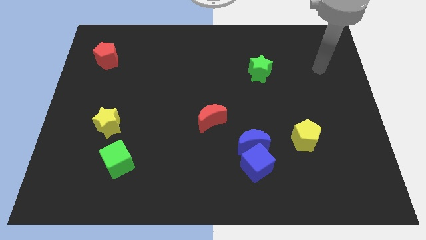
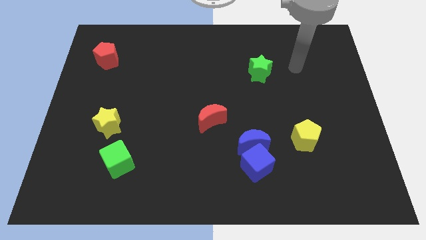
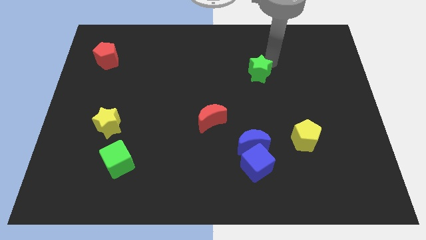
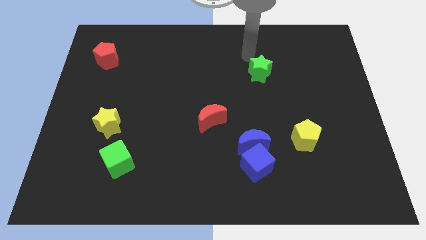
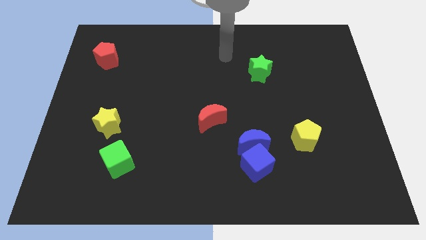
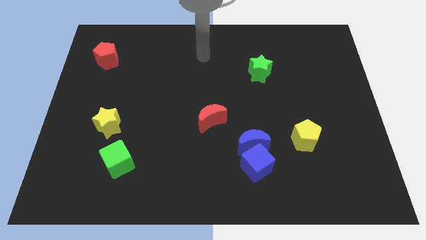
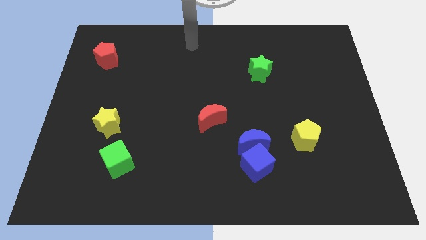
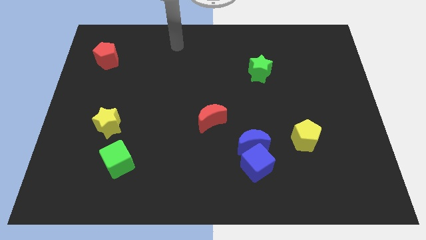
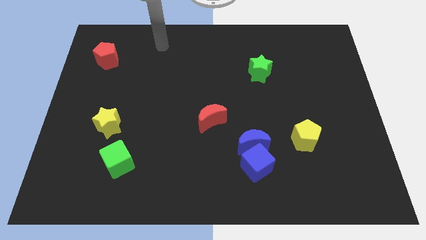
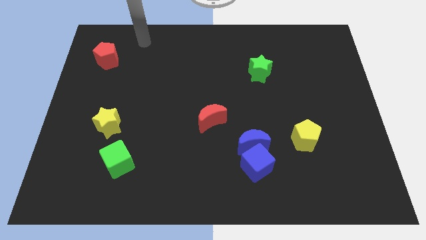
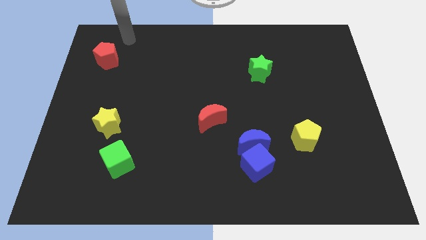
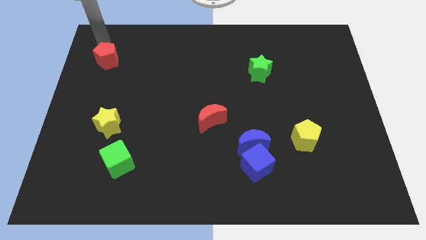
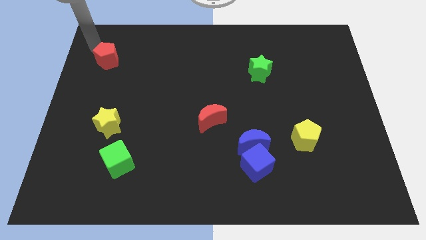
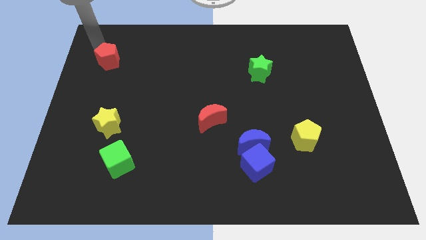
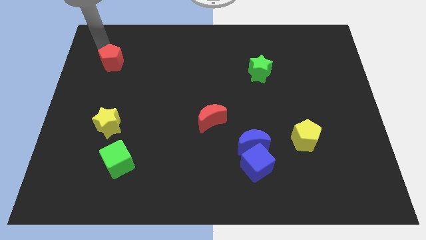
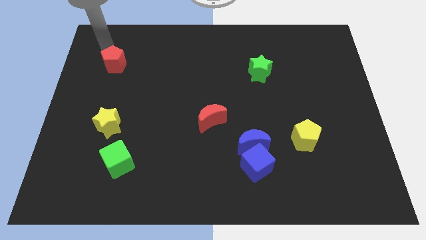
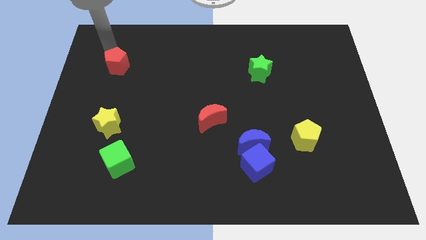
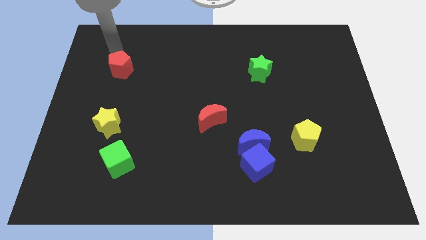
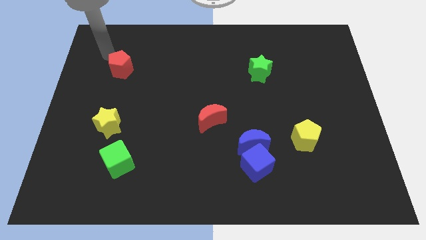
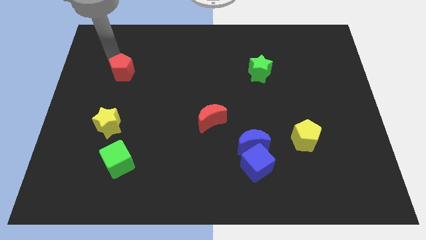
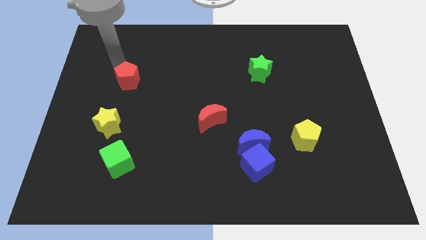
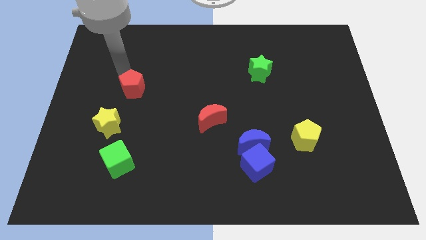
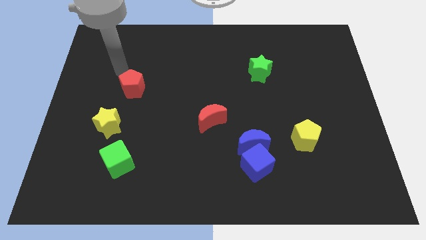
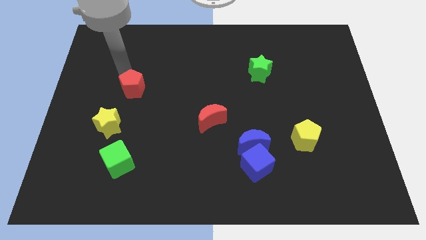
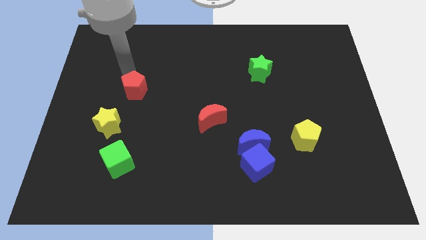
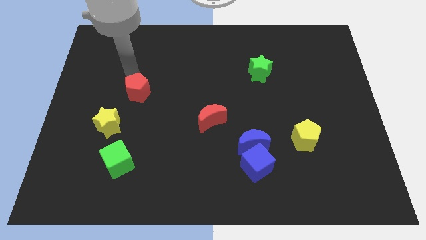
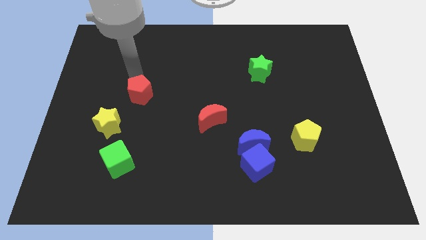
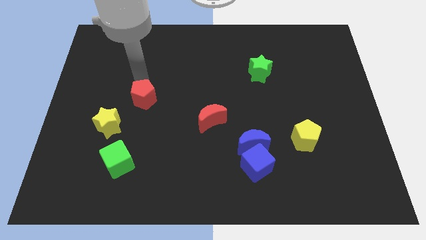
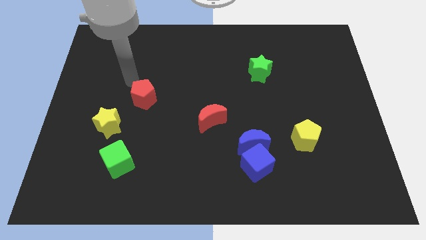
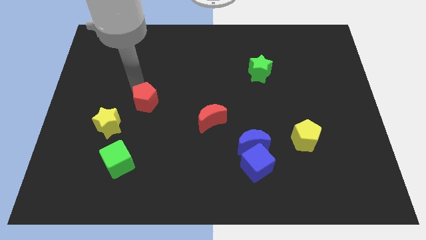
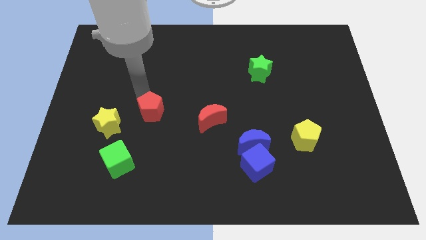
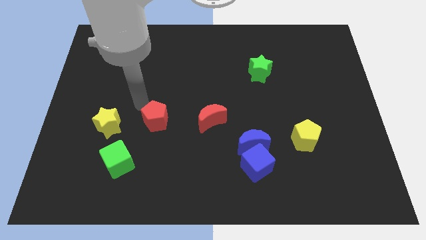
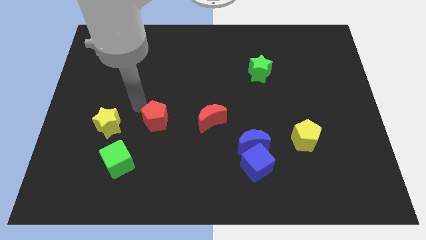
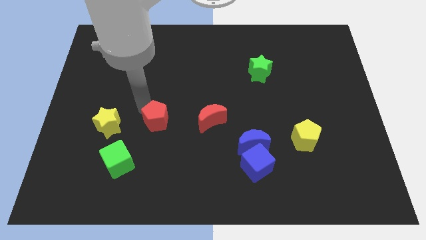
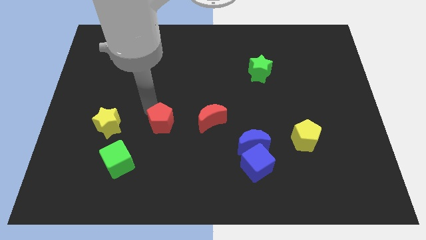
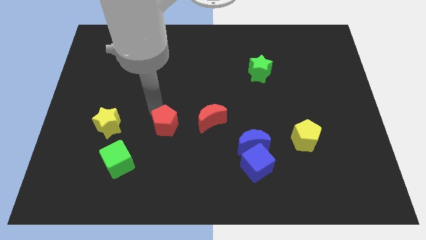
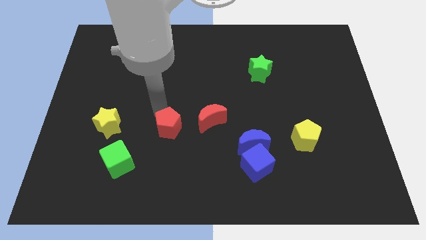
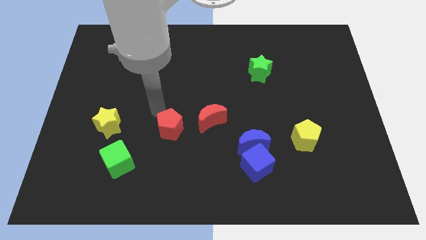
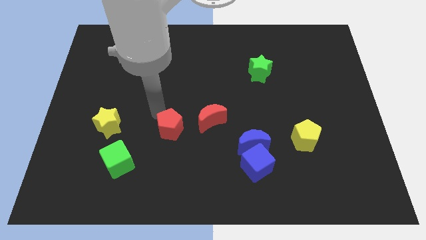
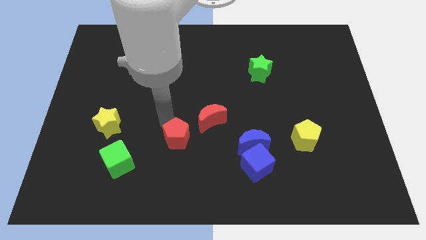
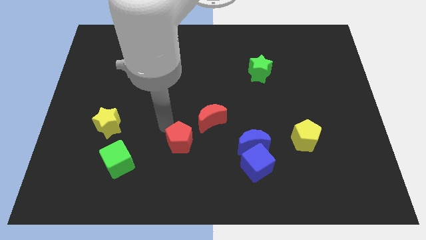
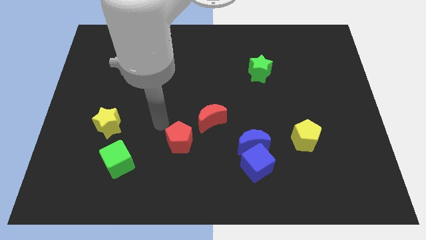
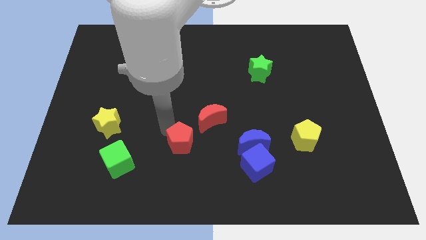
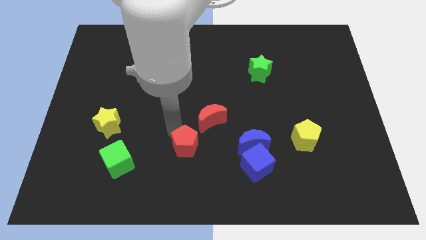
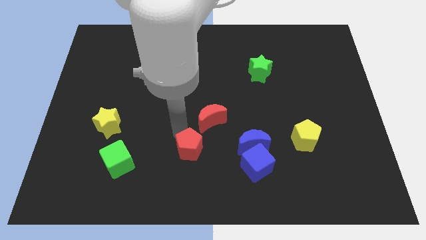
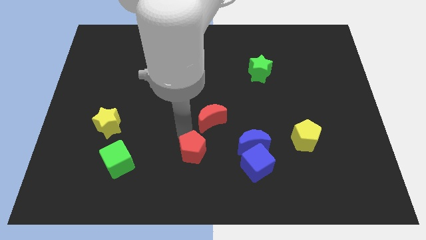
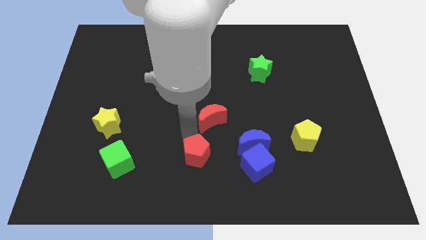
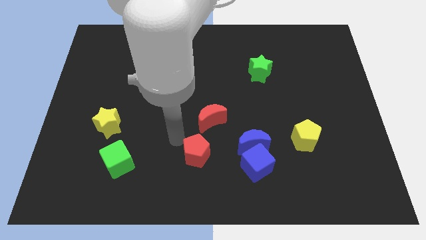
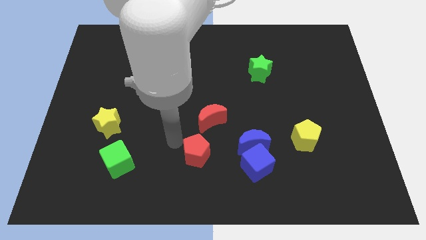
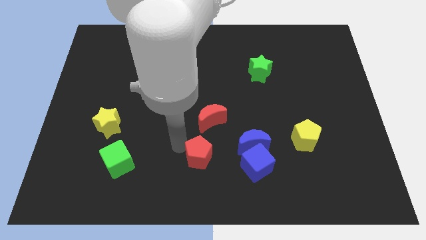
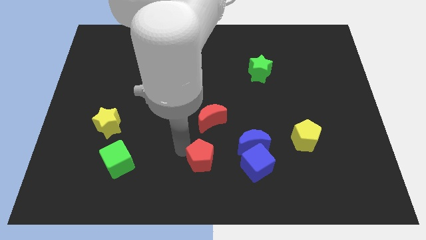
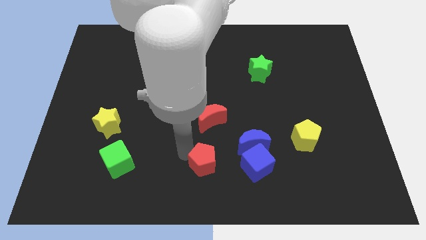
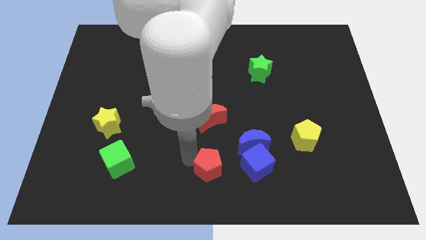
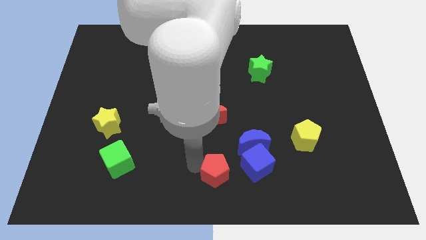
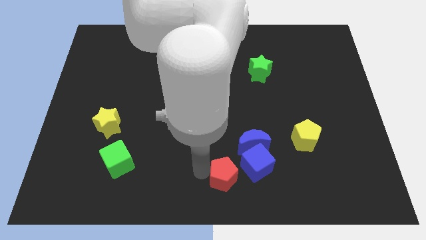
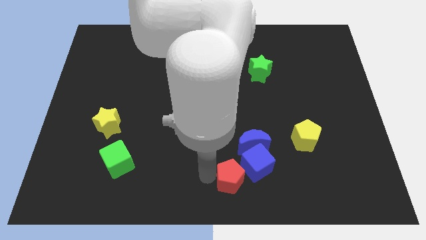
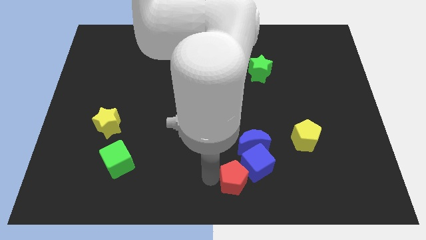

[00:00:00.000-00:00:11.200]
push the red pentagon next to the blue cube

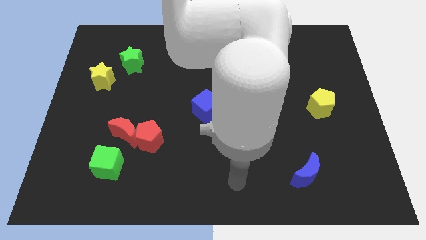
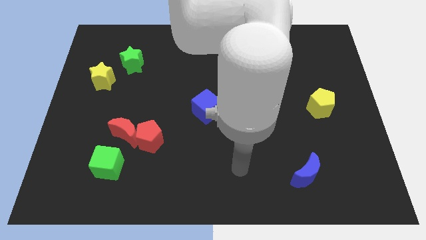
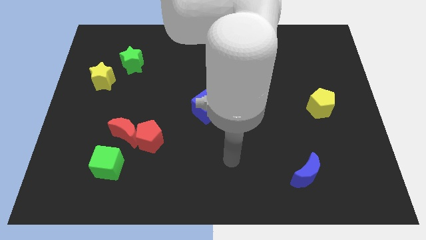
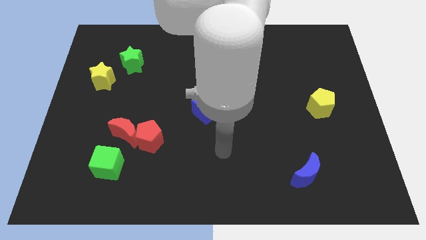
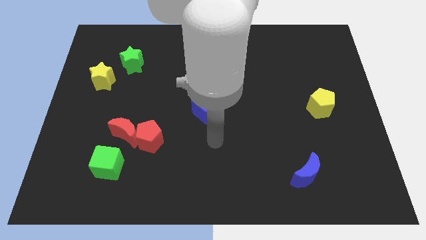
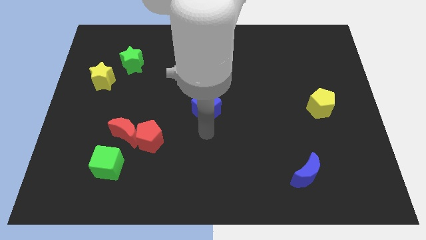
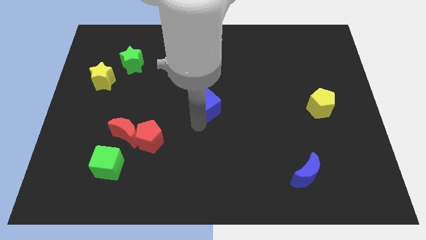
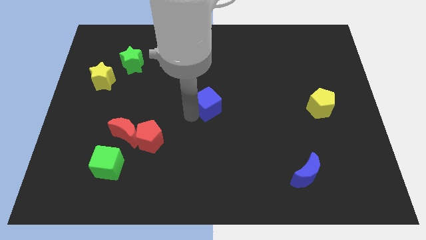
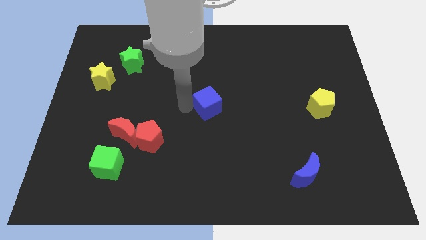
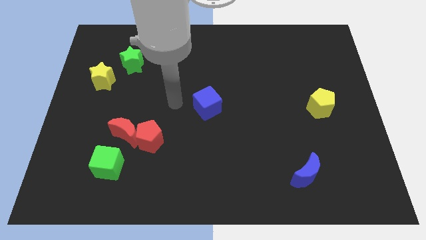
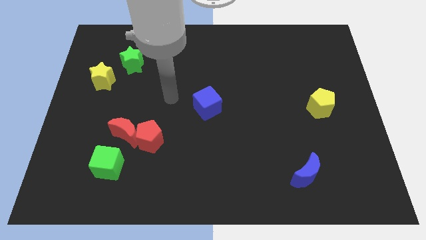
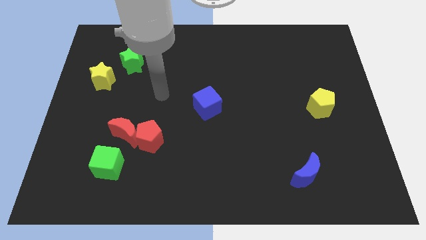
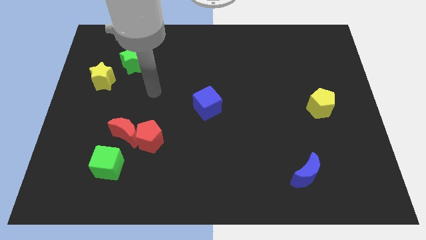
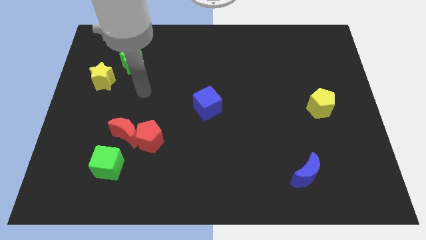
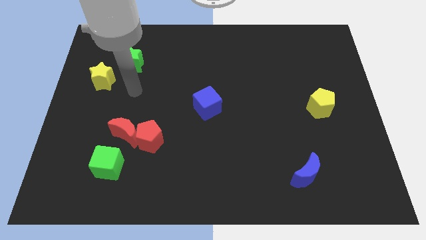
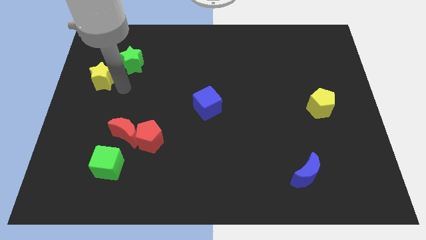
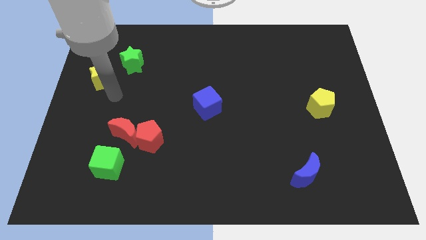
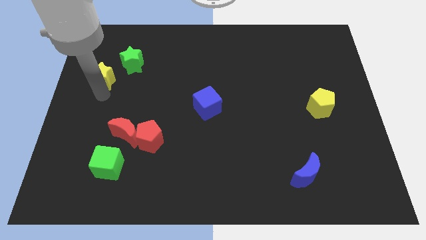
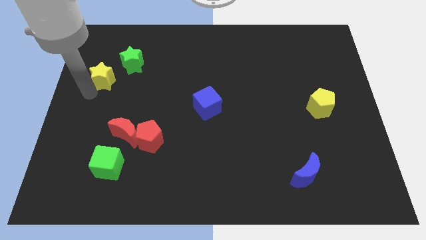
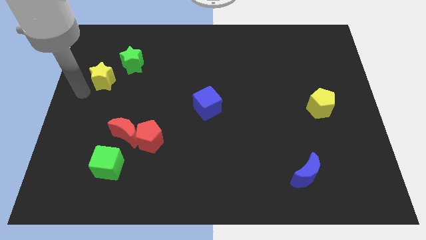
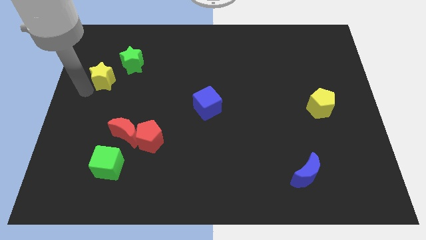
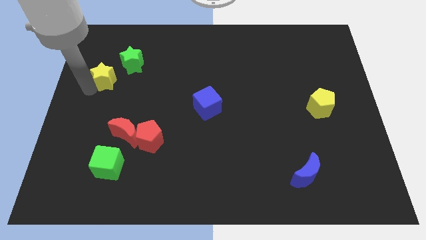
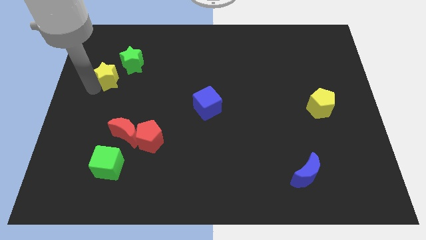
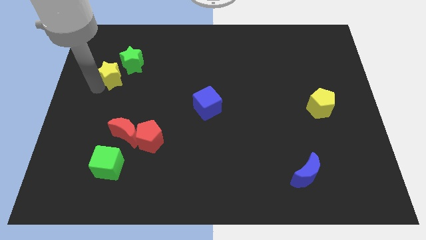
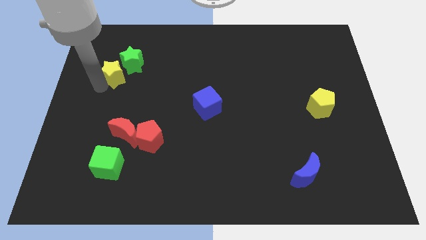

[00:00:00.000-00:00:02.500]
put the yellow star to the green star
